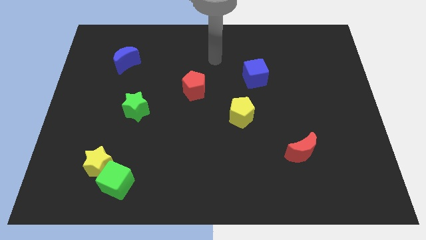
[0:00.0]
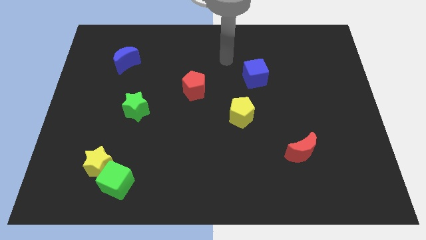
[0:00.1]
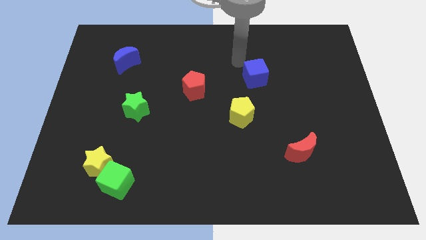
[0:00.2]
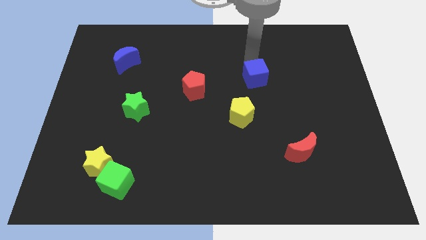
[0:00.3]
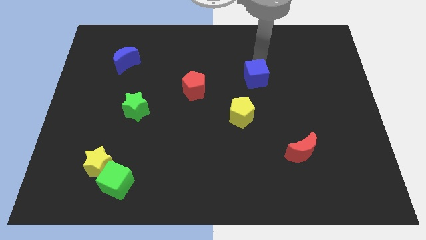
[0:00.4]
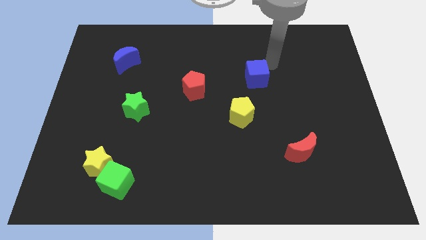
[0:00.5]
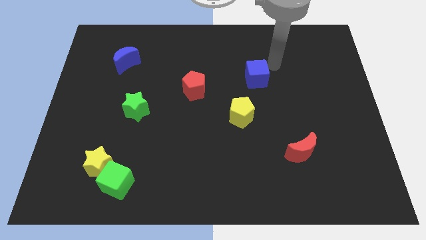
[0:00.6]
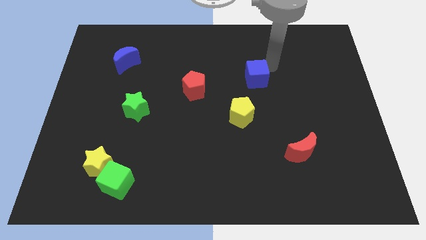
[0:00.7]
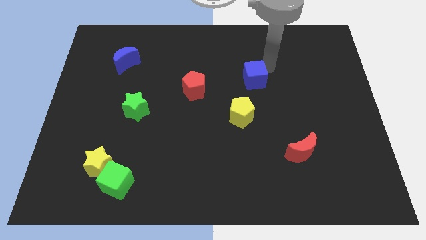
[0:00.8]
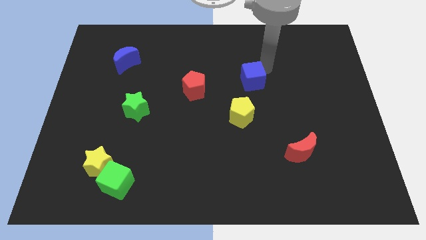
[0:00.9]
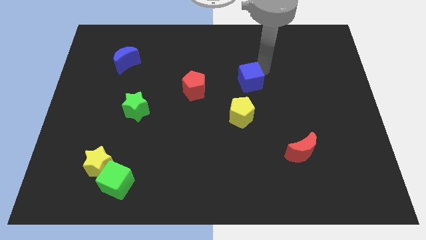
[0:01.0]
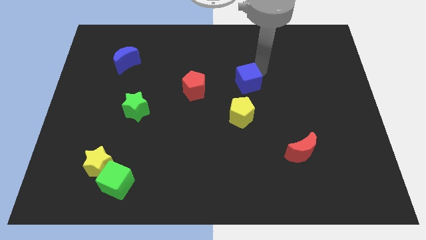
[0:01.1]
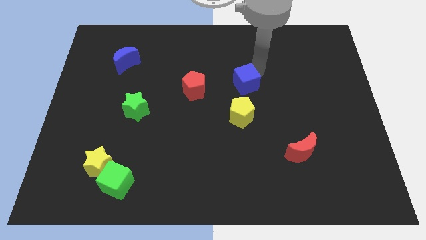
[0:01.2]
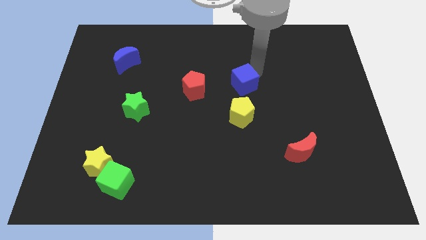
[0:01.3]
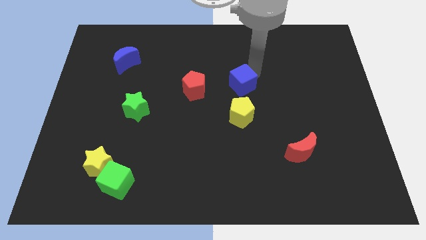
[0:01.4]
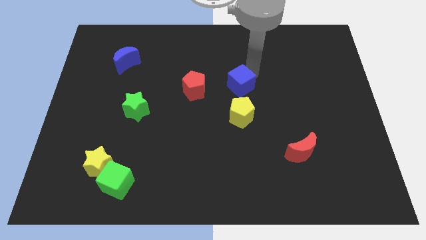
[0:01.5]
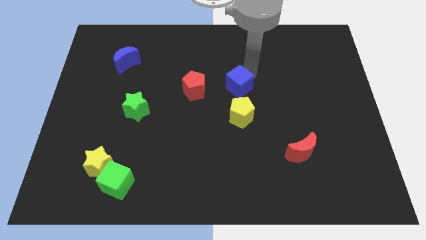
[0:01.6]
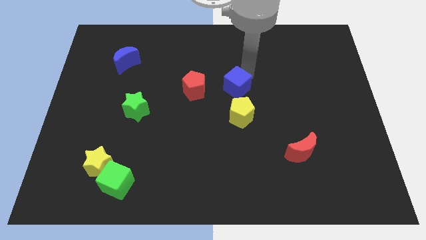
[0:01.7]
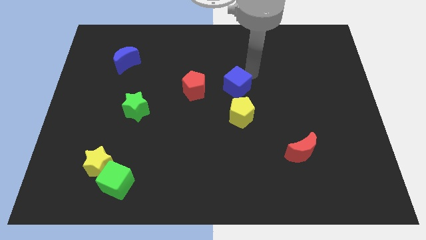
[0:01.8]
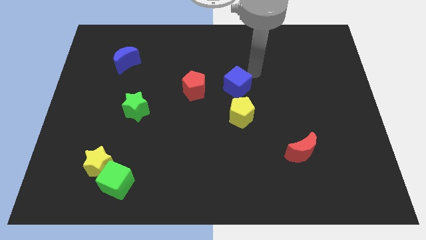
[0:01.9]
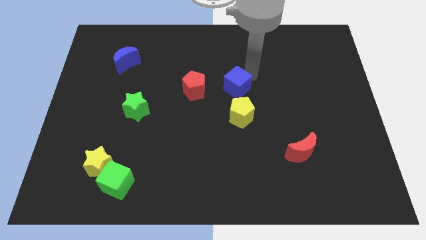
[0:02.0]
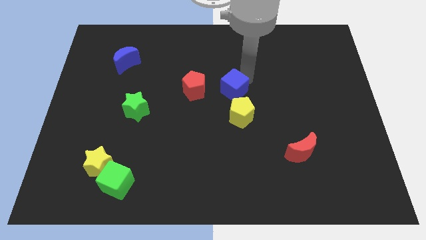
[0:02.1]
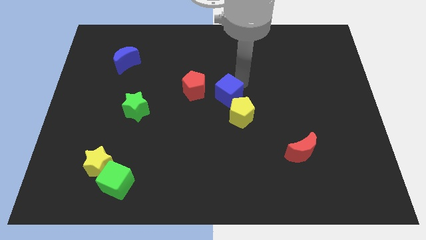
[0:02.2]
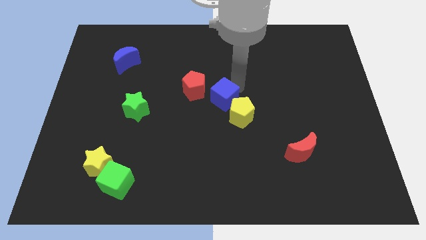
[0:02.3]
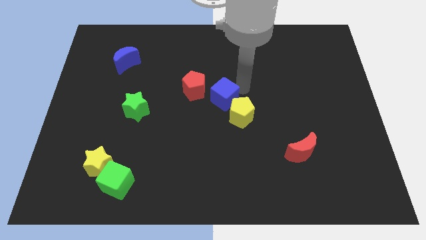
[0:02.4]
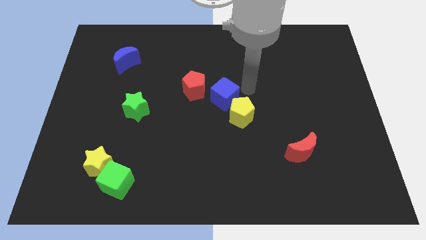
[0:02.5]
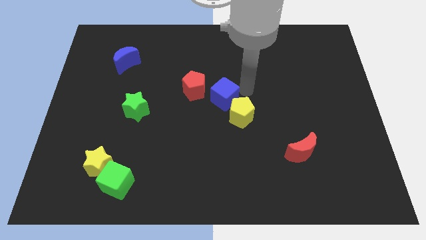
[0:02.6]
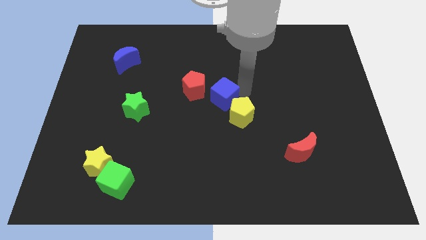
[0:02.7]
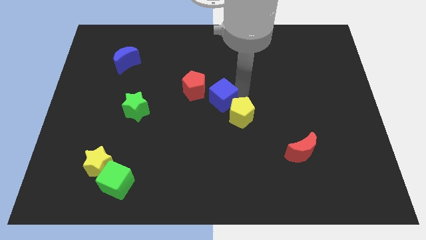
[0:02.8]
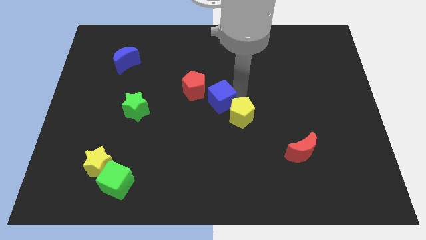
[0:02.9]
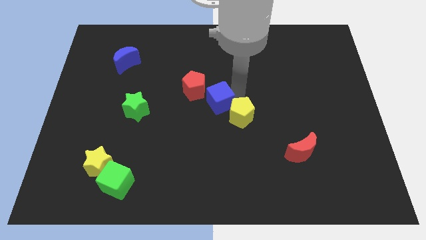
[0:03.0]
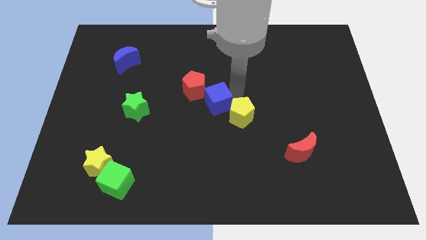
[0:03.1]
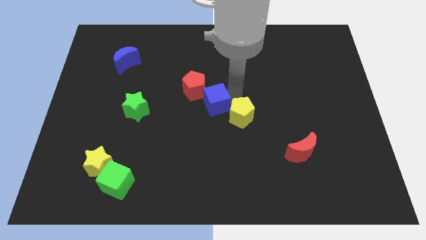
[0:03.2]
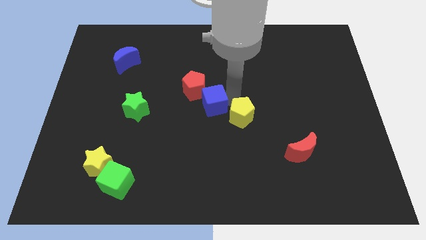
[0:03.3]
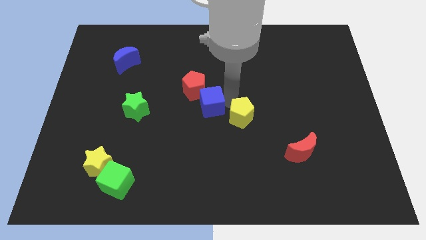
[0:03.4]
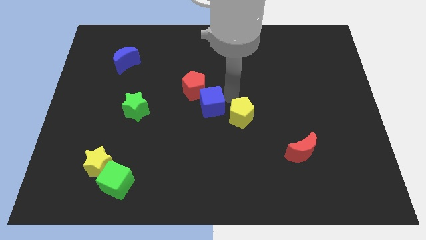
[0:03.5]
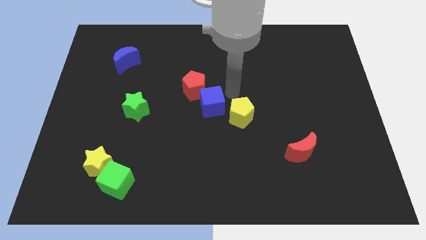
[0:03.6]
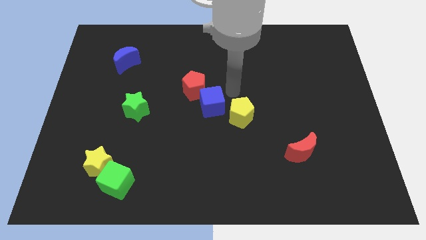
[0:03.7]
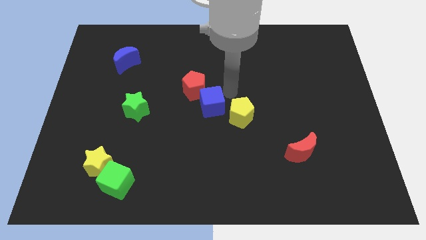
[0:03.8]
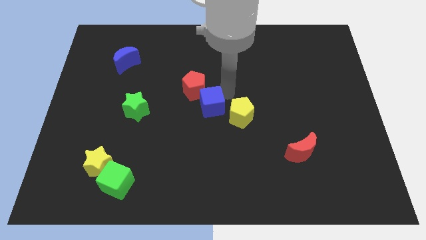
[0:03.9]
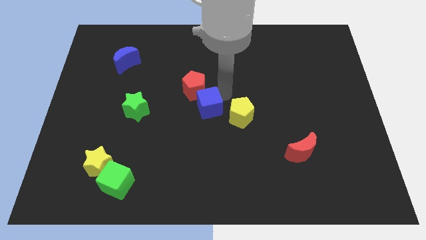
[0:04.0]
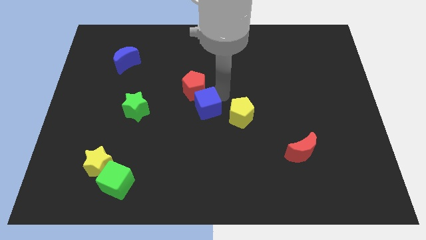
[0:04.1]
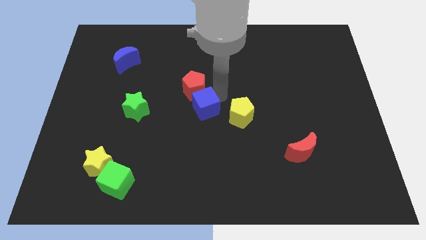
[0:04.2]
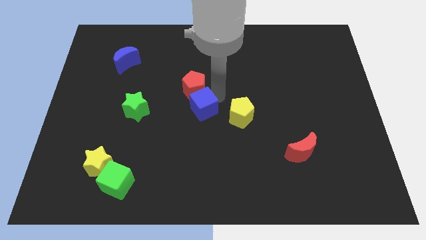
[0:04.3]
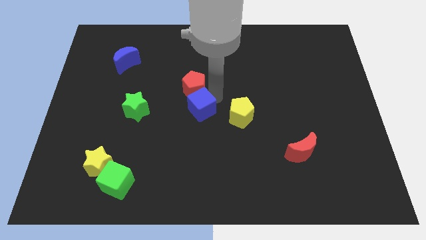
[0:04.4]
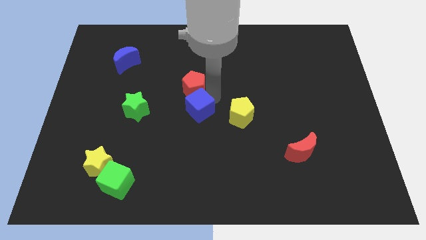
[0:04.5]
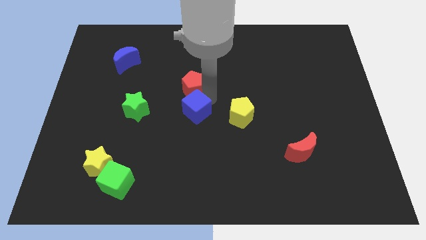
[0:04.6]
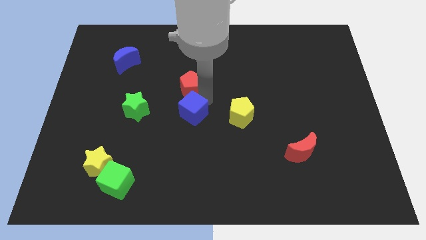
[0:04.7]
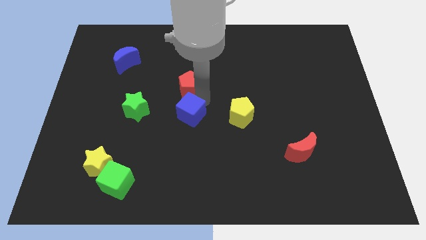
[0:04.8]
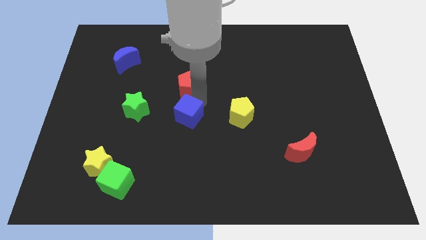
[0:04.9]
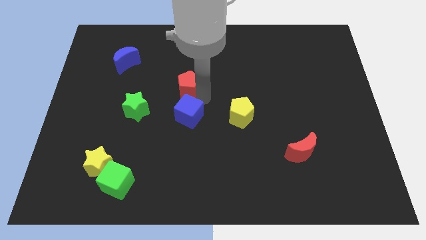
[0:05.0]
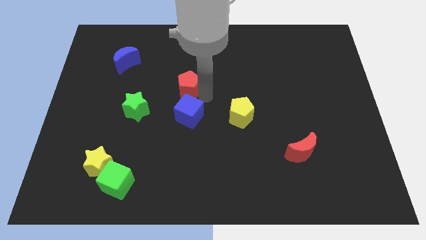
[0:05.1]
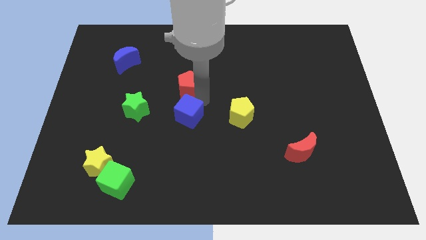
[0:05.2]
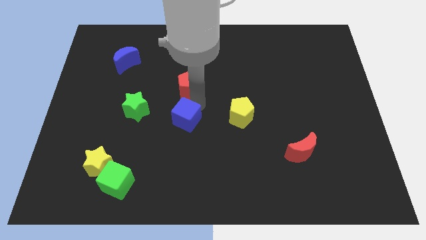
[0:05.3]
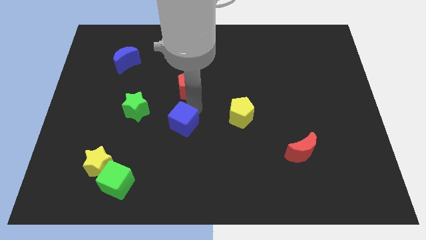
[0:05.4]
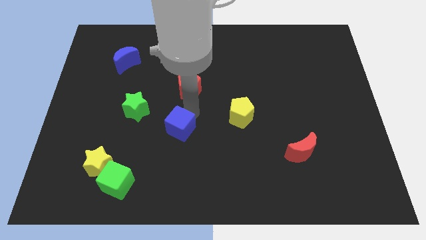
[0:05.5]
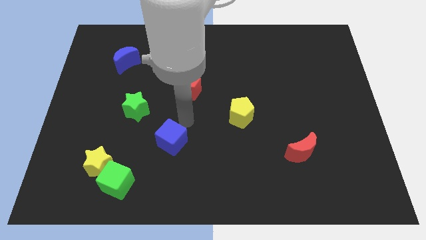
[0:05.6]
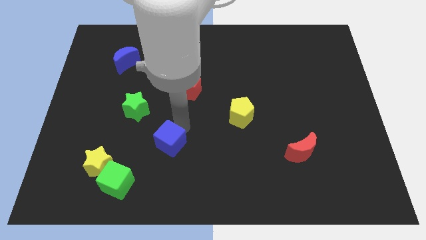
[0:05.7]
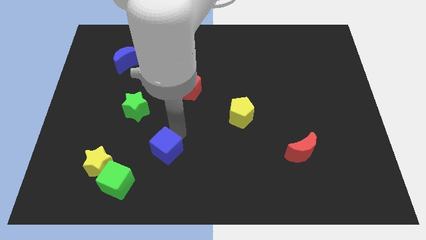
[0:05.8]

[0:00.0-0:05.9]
slide the blue cube diagonally up and to the right of the green cube

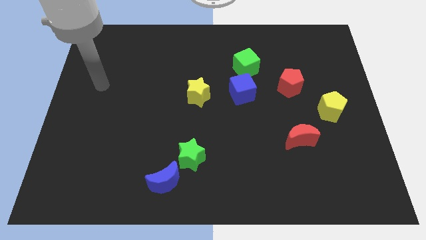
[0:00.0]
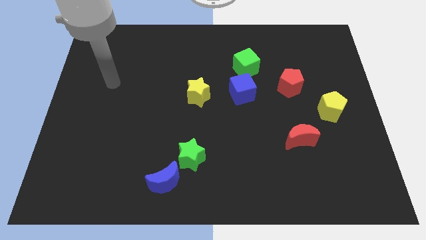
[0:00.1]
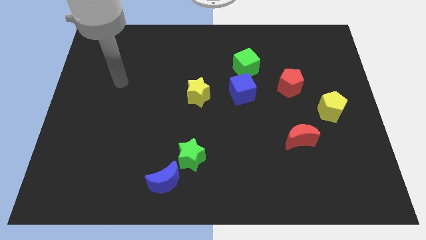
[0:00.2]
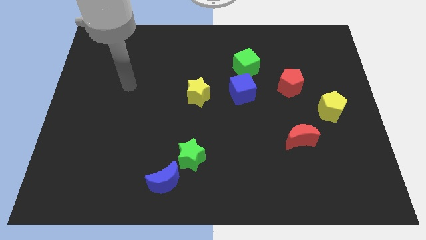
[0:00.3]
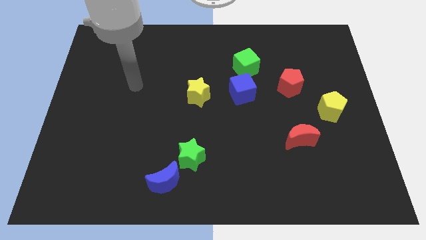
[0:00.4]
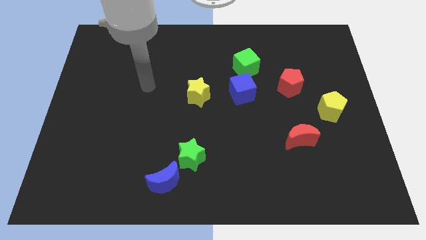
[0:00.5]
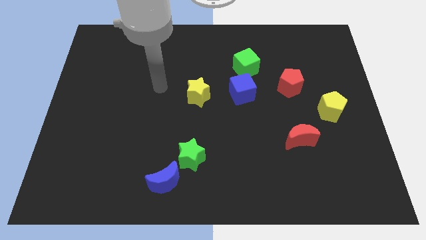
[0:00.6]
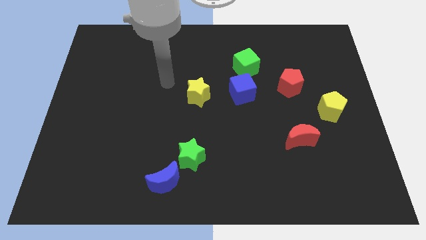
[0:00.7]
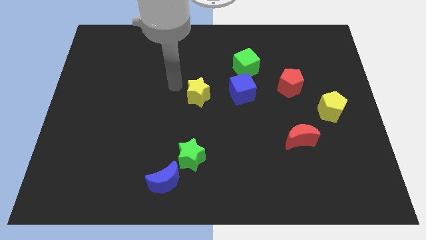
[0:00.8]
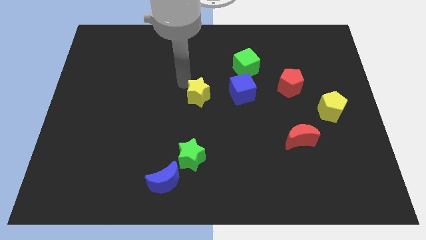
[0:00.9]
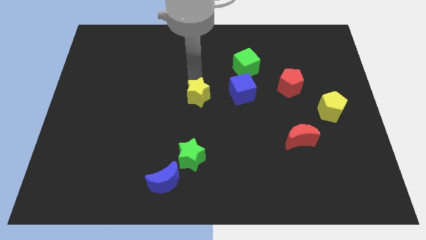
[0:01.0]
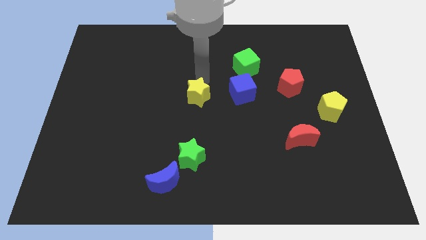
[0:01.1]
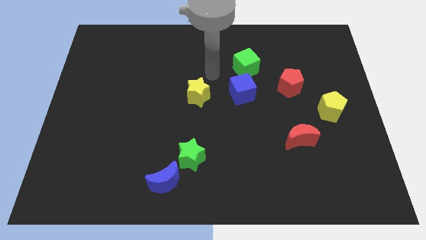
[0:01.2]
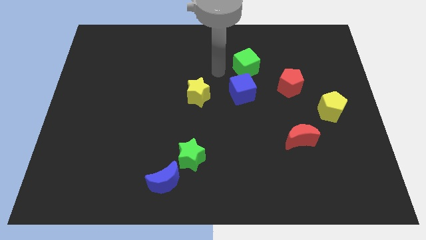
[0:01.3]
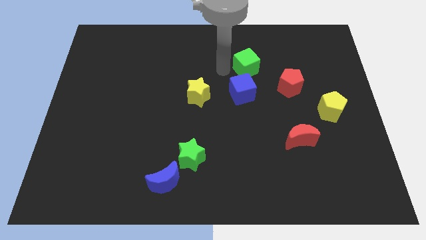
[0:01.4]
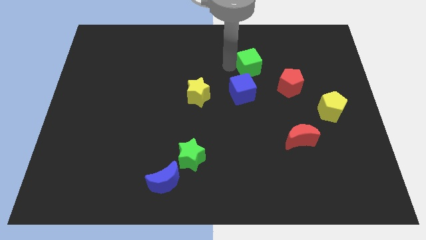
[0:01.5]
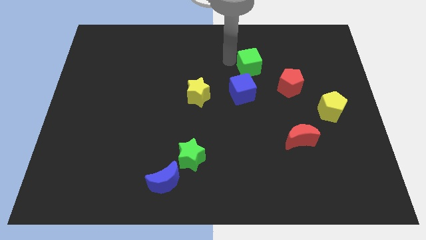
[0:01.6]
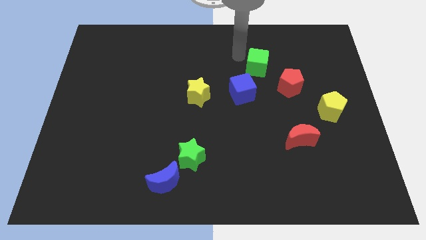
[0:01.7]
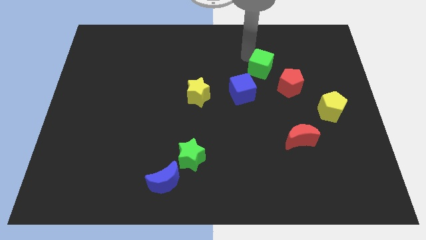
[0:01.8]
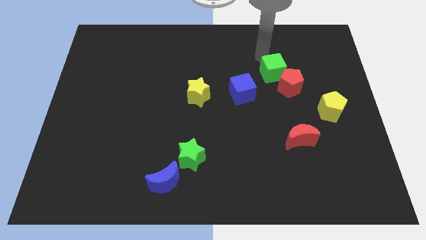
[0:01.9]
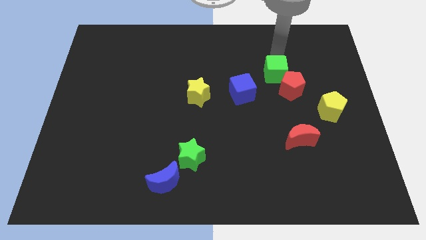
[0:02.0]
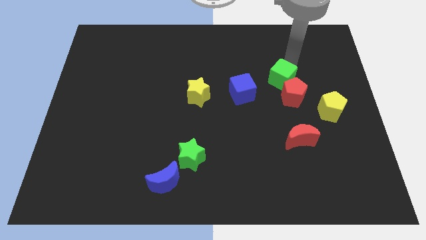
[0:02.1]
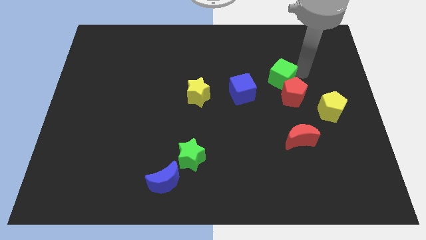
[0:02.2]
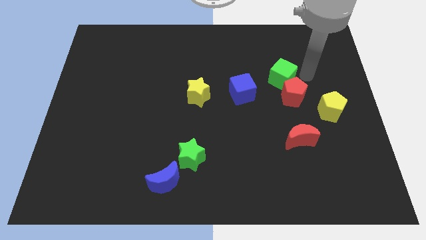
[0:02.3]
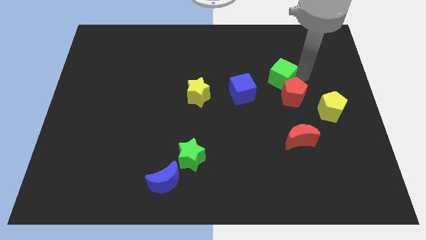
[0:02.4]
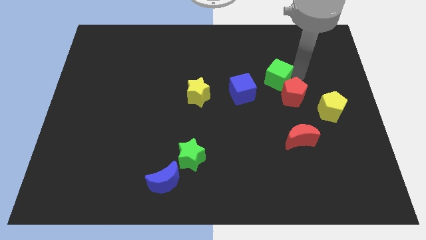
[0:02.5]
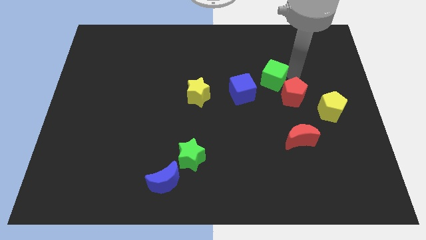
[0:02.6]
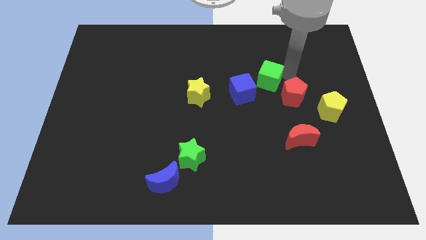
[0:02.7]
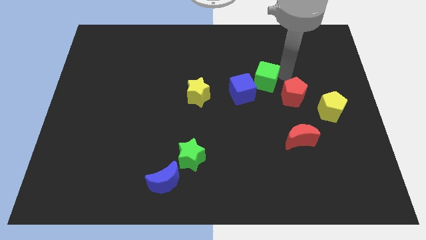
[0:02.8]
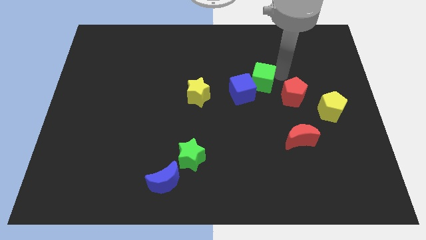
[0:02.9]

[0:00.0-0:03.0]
push the green cube to the left side of the red pentagon
